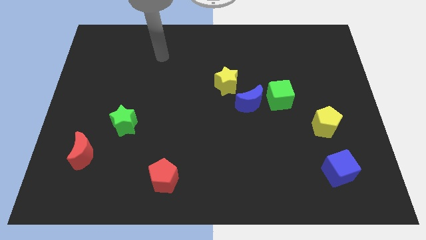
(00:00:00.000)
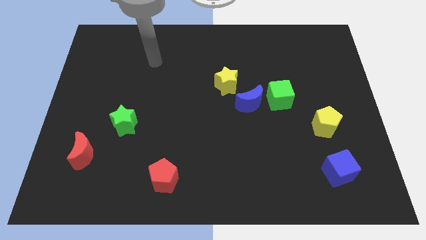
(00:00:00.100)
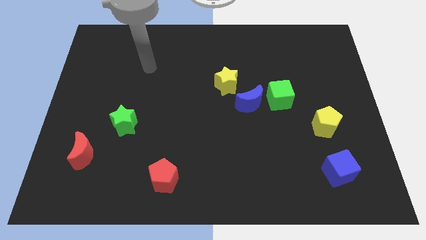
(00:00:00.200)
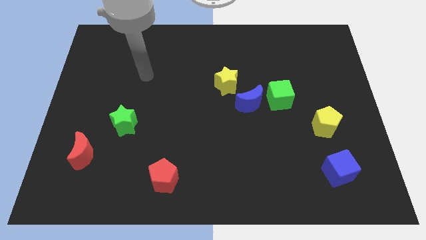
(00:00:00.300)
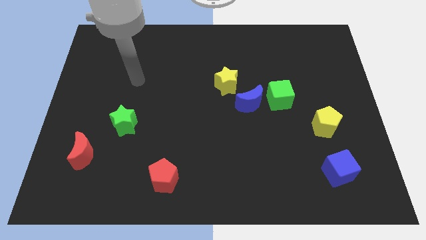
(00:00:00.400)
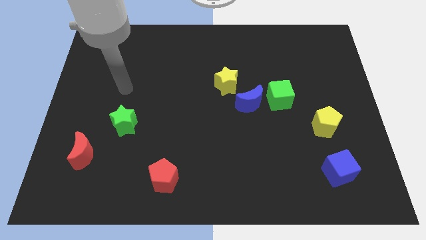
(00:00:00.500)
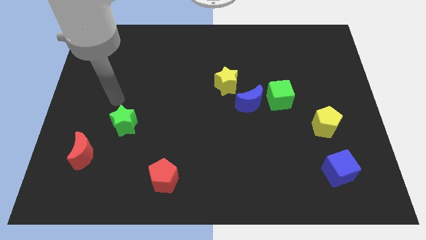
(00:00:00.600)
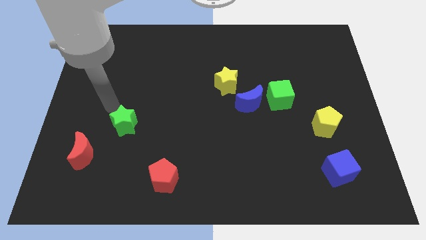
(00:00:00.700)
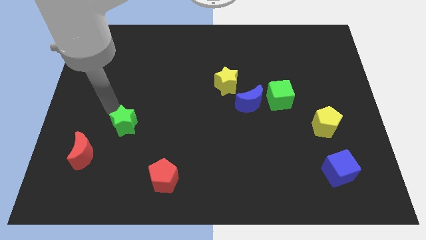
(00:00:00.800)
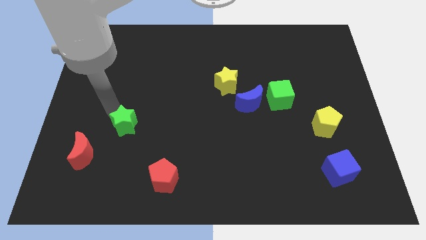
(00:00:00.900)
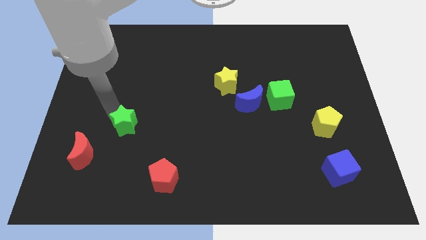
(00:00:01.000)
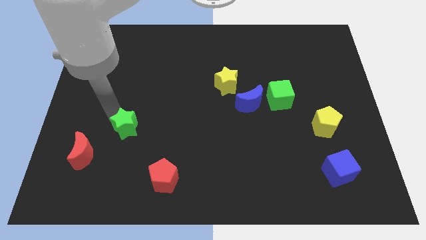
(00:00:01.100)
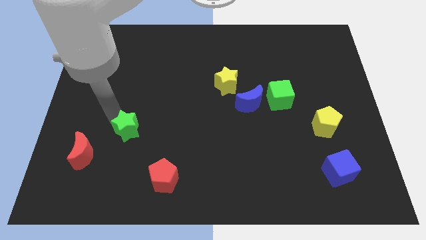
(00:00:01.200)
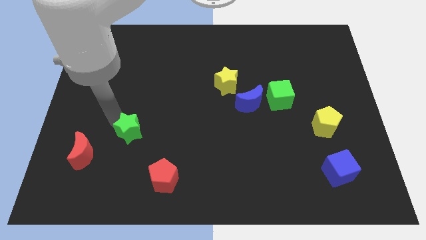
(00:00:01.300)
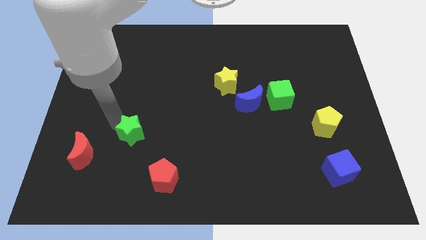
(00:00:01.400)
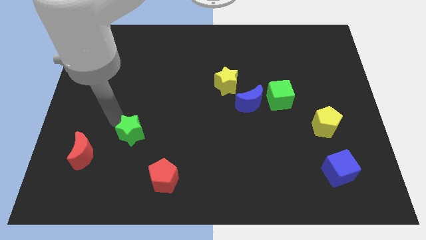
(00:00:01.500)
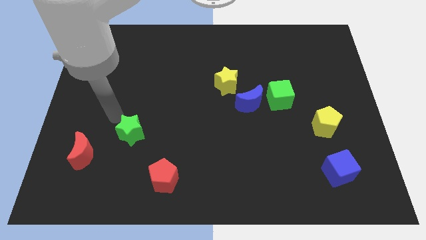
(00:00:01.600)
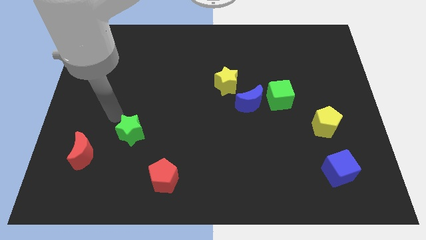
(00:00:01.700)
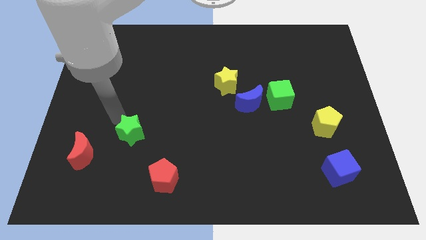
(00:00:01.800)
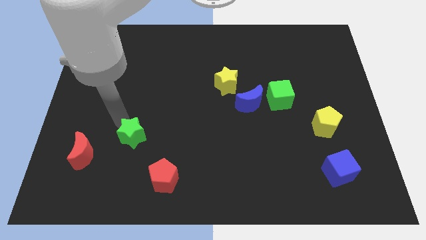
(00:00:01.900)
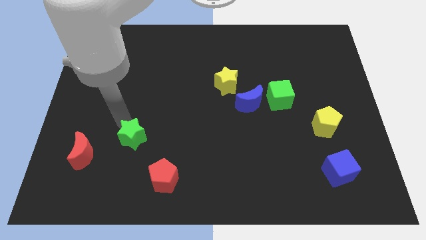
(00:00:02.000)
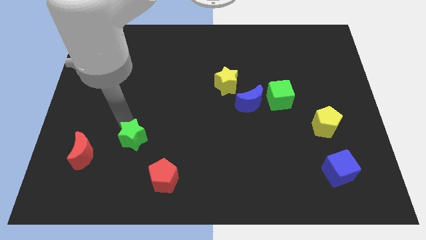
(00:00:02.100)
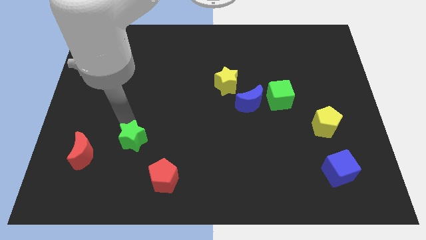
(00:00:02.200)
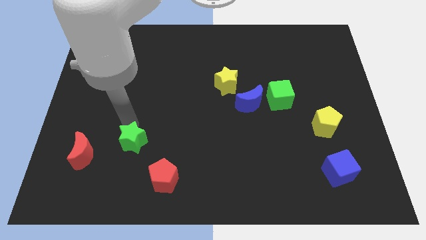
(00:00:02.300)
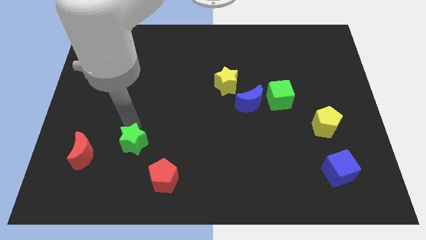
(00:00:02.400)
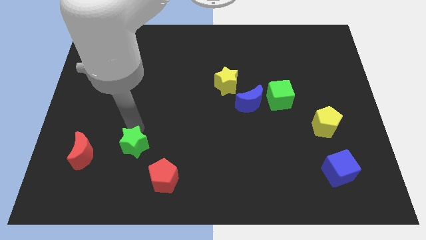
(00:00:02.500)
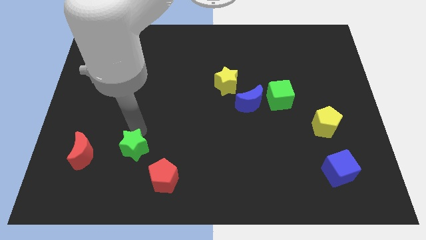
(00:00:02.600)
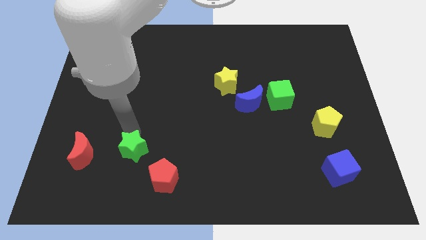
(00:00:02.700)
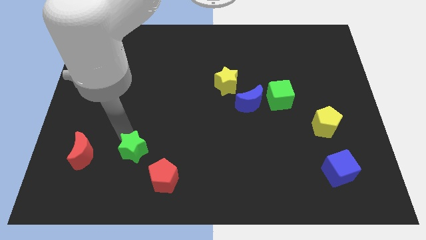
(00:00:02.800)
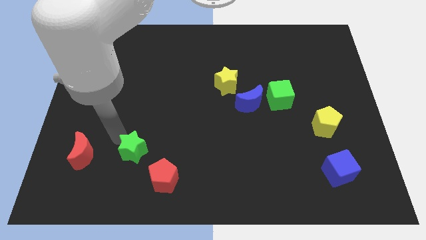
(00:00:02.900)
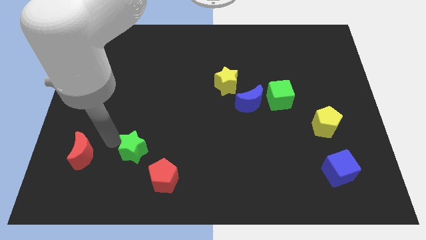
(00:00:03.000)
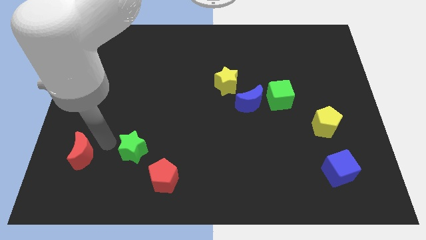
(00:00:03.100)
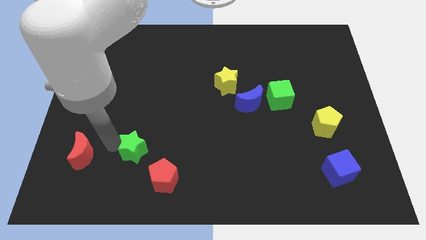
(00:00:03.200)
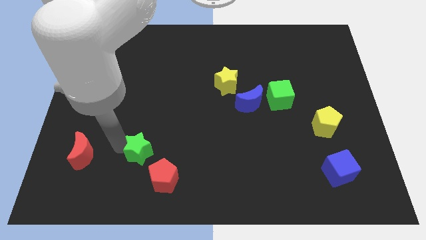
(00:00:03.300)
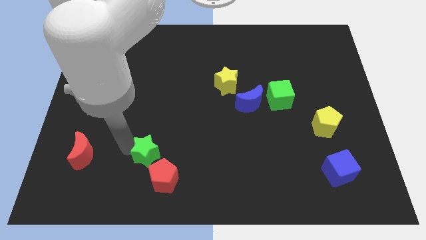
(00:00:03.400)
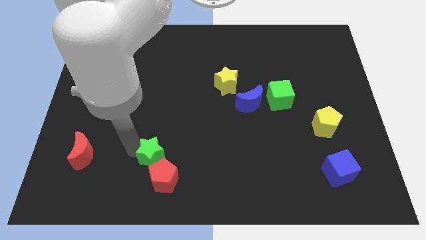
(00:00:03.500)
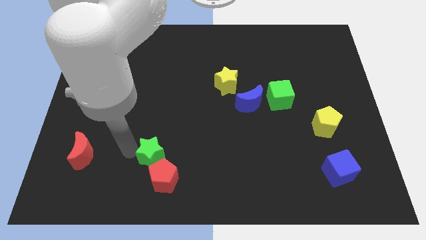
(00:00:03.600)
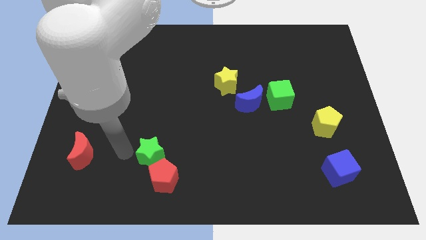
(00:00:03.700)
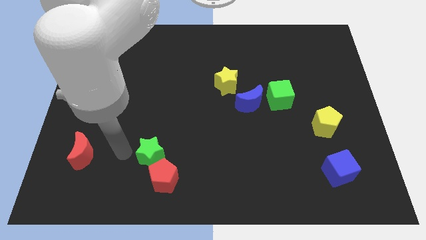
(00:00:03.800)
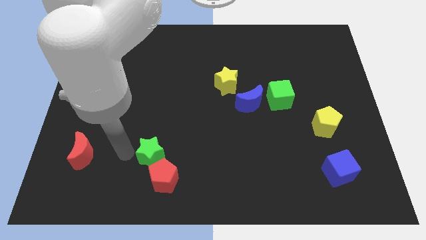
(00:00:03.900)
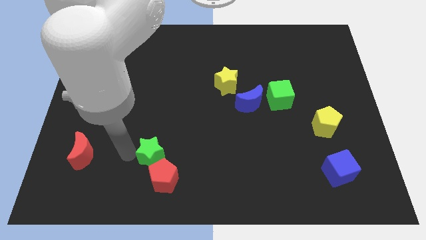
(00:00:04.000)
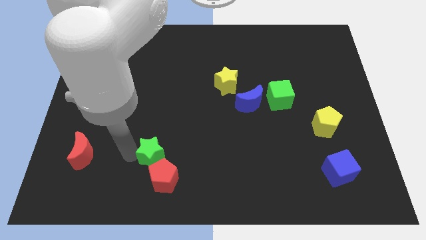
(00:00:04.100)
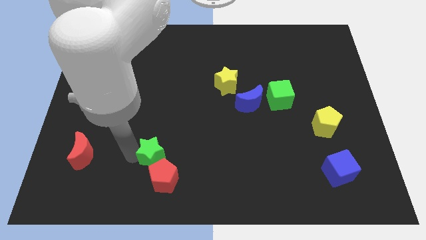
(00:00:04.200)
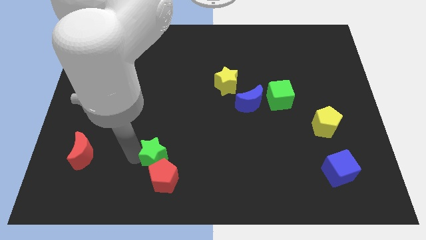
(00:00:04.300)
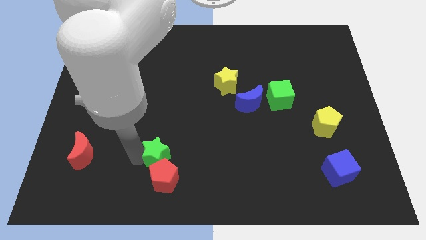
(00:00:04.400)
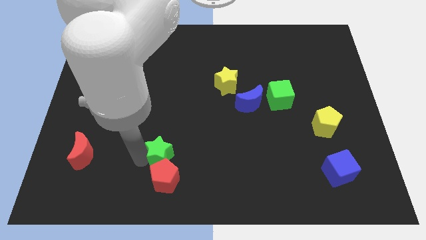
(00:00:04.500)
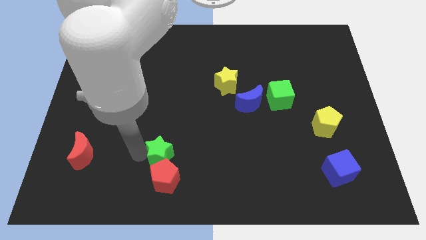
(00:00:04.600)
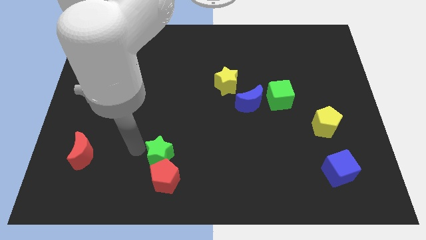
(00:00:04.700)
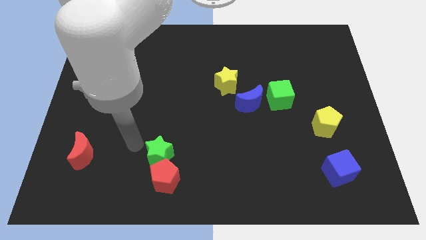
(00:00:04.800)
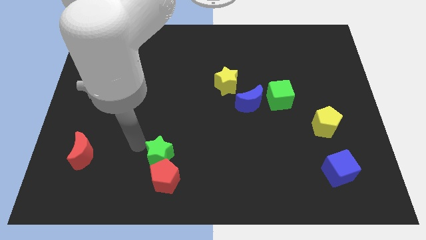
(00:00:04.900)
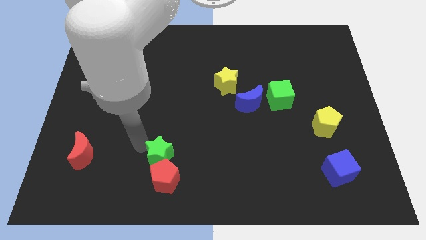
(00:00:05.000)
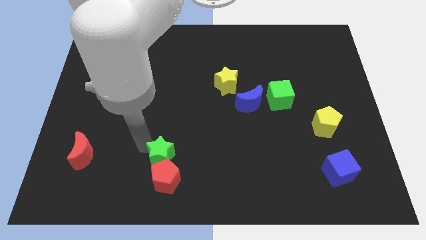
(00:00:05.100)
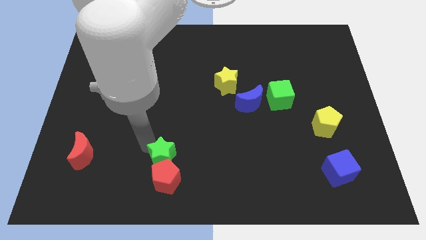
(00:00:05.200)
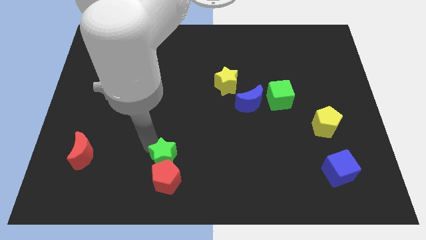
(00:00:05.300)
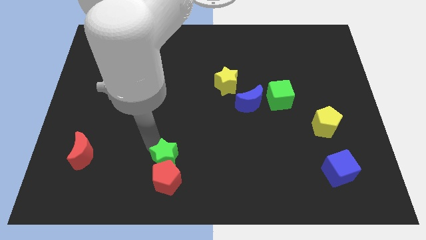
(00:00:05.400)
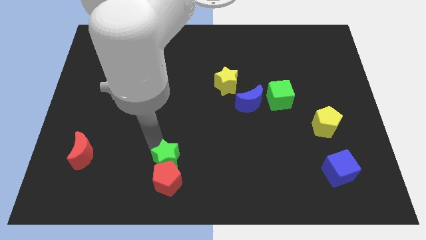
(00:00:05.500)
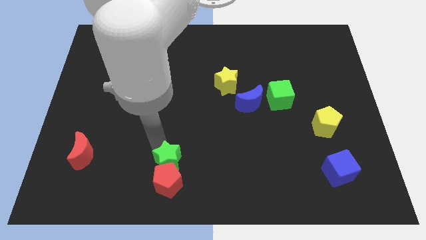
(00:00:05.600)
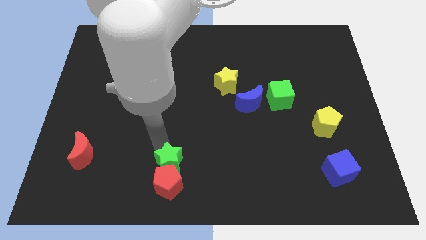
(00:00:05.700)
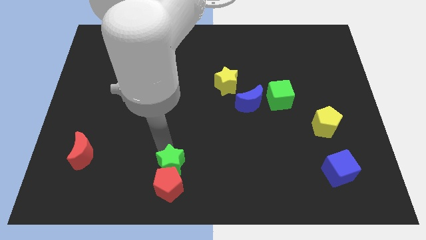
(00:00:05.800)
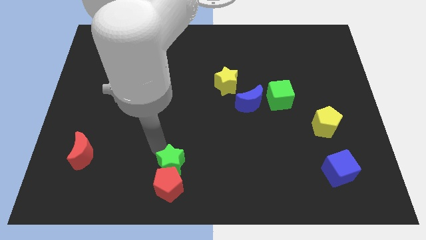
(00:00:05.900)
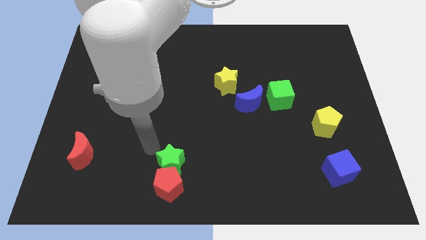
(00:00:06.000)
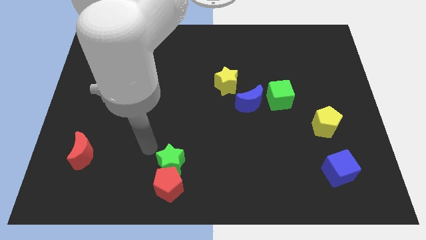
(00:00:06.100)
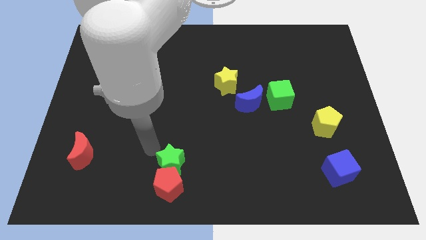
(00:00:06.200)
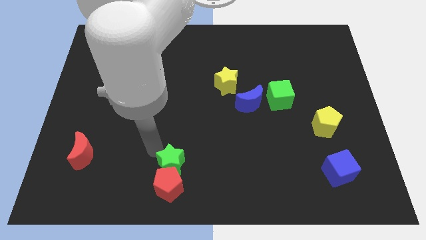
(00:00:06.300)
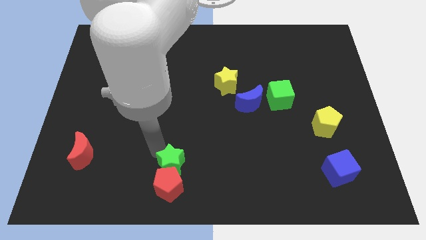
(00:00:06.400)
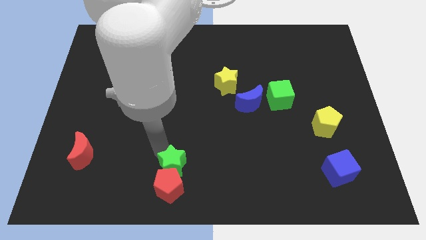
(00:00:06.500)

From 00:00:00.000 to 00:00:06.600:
put the green star to the bottom
